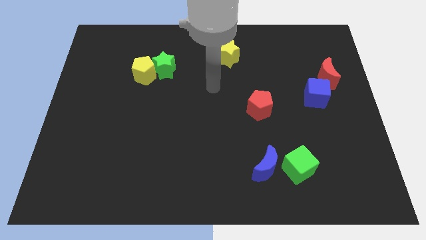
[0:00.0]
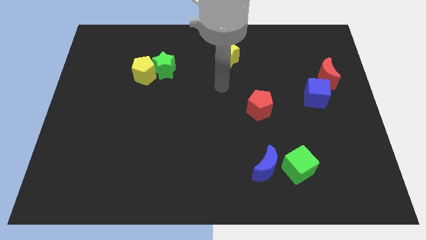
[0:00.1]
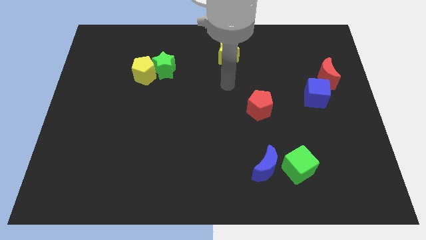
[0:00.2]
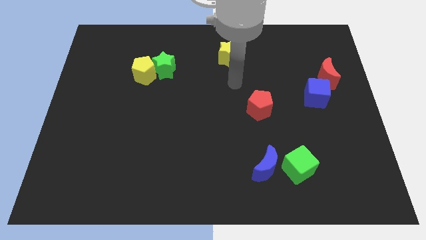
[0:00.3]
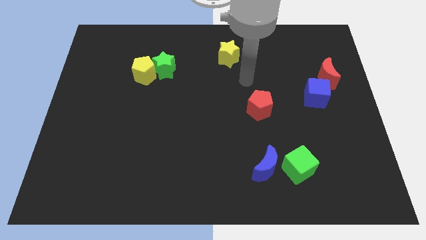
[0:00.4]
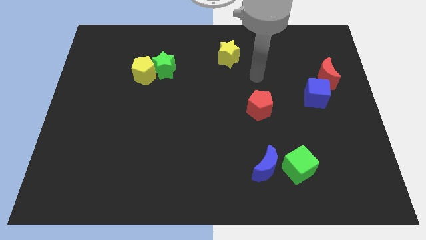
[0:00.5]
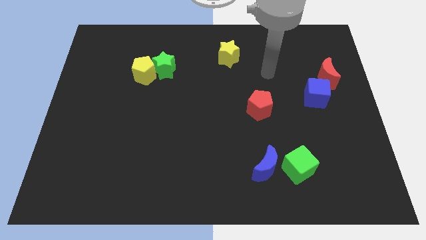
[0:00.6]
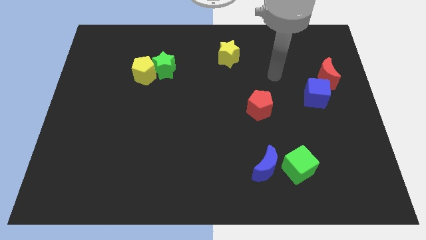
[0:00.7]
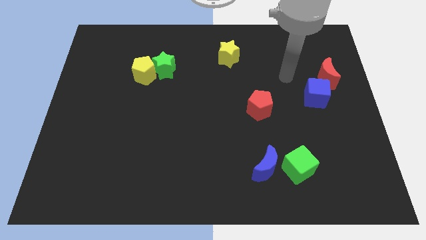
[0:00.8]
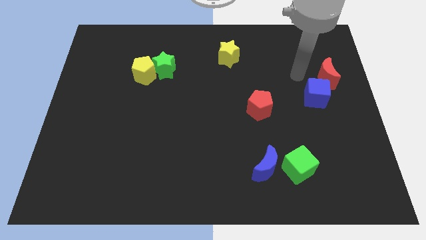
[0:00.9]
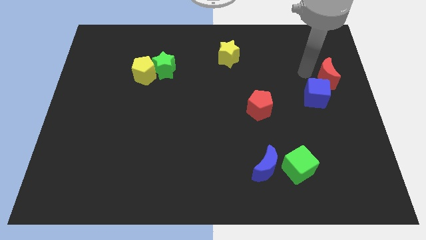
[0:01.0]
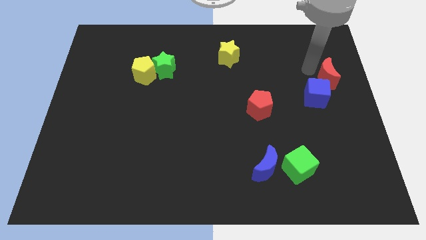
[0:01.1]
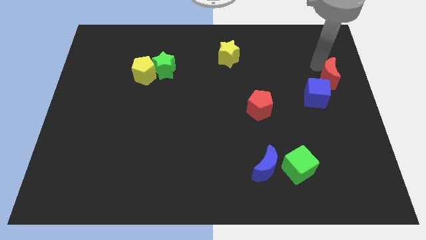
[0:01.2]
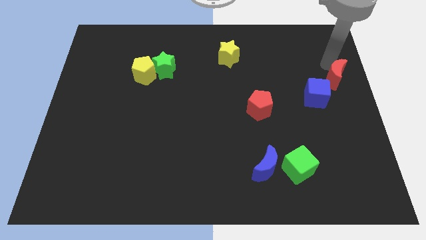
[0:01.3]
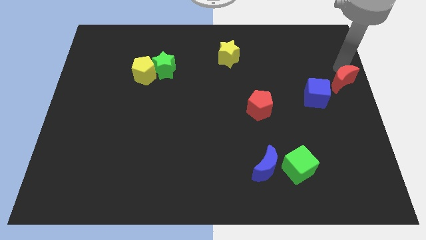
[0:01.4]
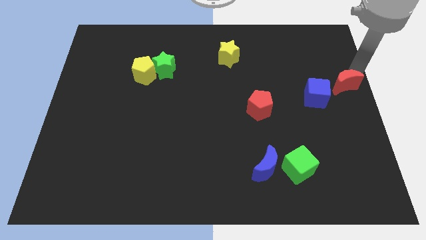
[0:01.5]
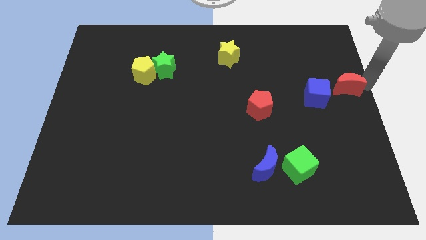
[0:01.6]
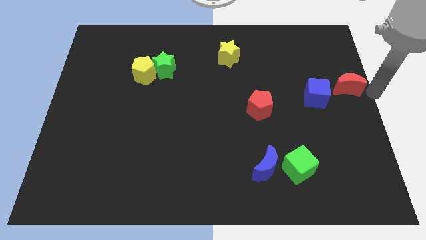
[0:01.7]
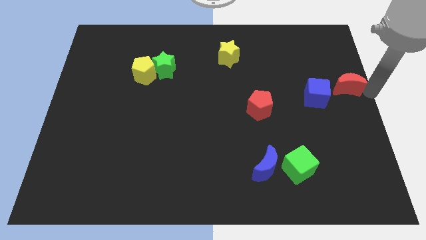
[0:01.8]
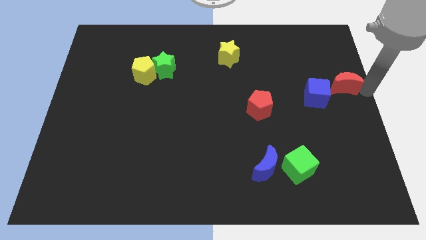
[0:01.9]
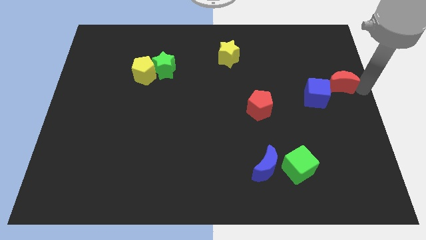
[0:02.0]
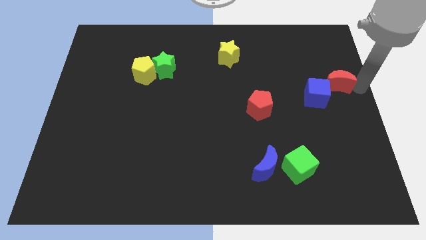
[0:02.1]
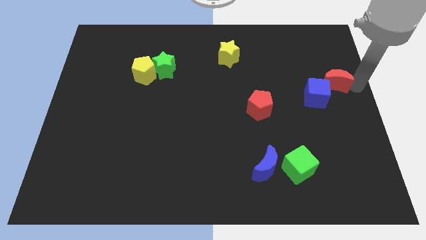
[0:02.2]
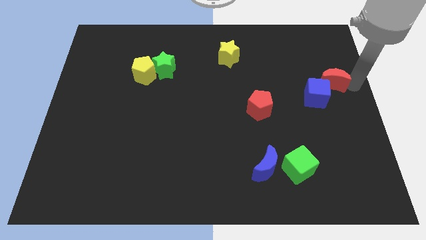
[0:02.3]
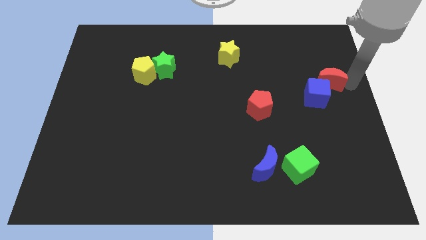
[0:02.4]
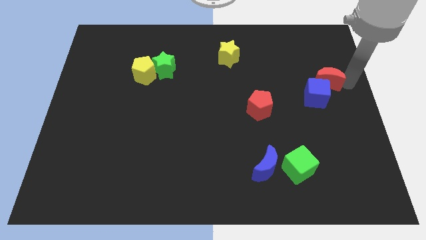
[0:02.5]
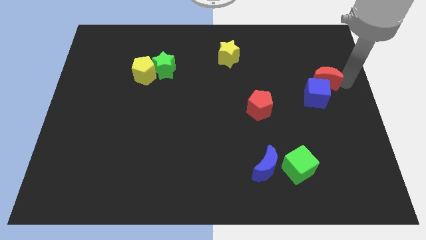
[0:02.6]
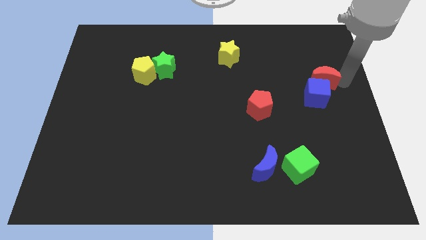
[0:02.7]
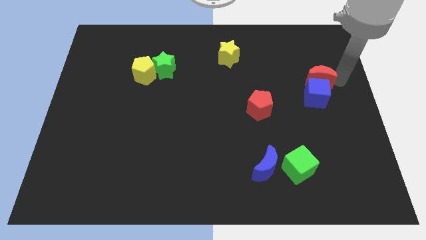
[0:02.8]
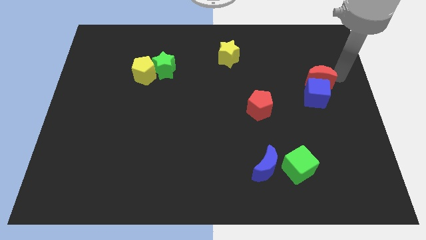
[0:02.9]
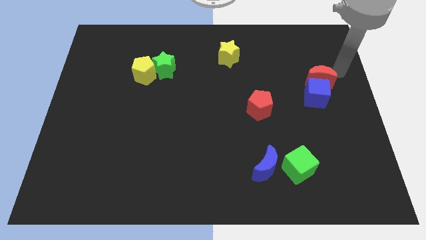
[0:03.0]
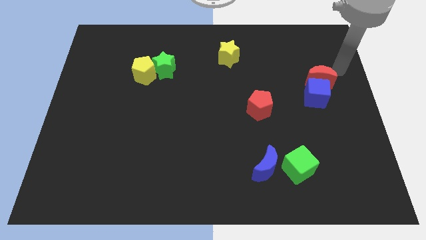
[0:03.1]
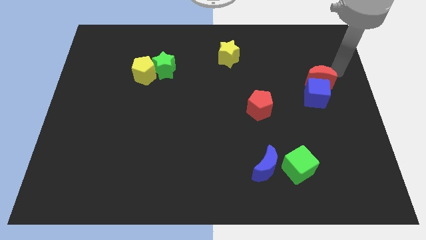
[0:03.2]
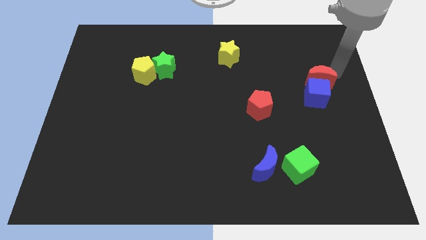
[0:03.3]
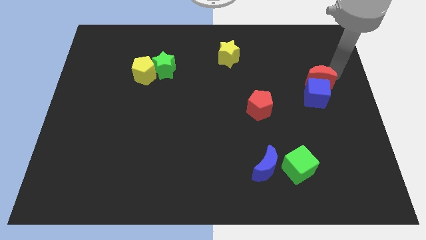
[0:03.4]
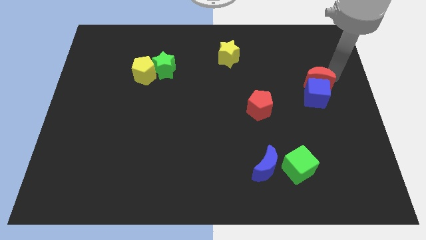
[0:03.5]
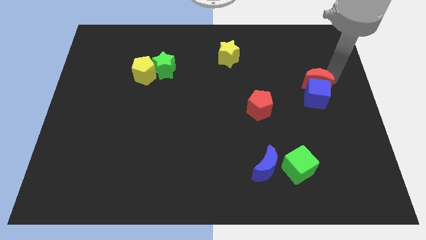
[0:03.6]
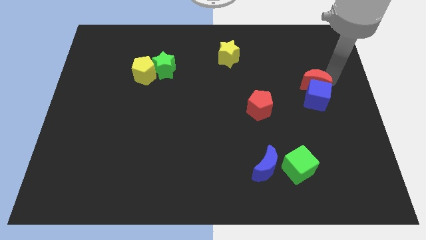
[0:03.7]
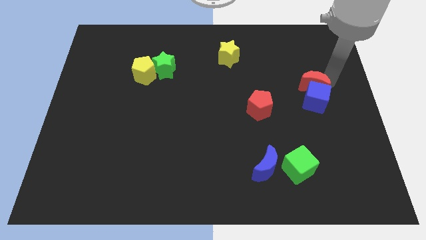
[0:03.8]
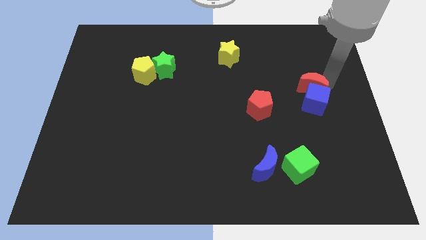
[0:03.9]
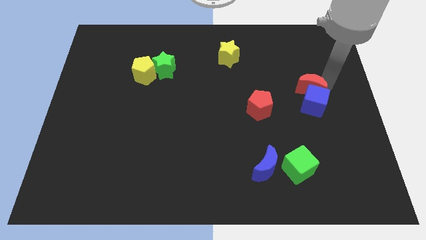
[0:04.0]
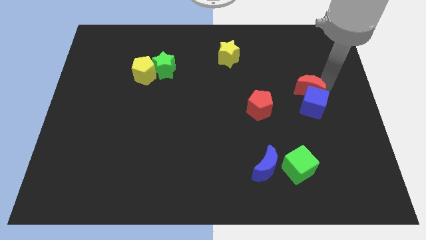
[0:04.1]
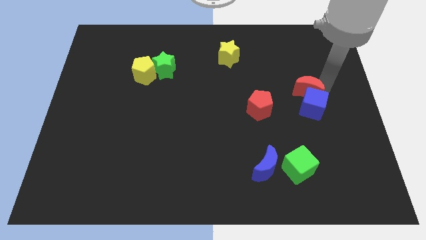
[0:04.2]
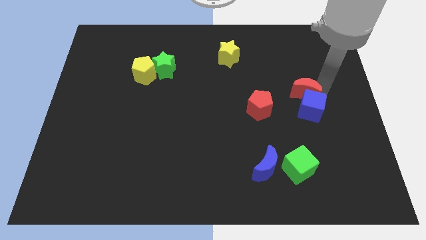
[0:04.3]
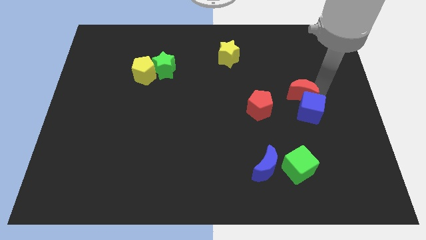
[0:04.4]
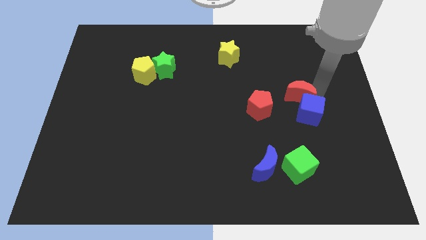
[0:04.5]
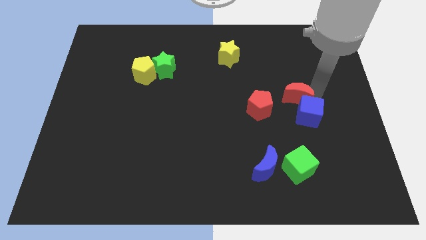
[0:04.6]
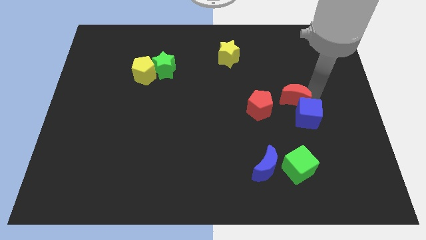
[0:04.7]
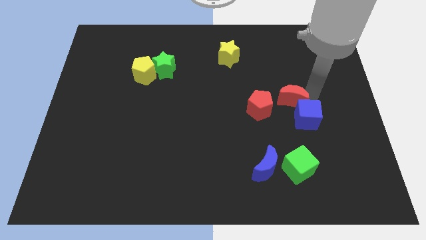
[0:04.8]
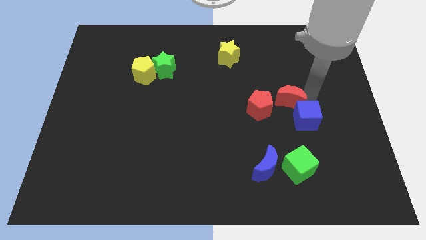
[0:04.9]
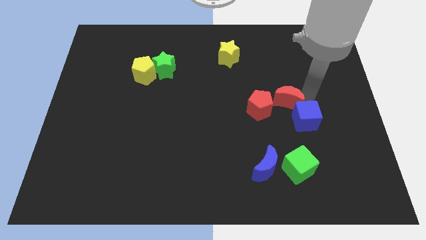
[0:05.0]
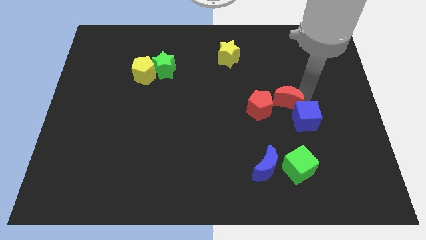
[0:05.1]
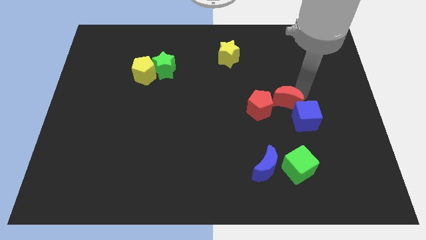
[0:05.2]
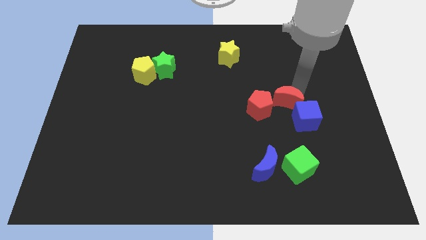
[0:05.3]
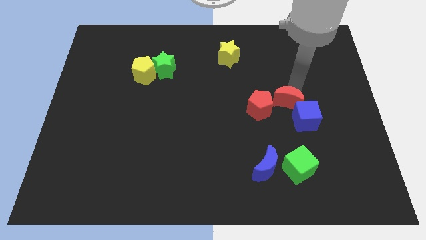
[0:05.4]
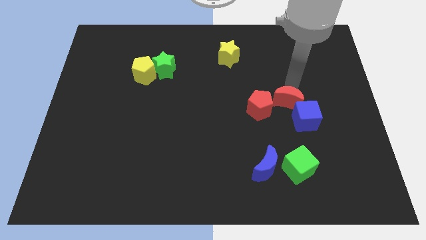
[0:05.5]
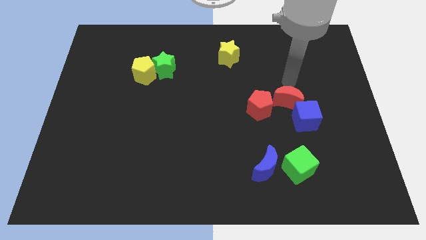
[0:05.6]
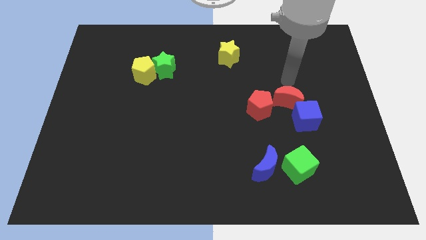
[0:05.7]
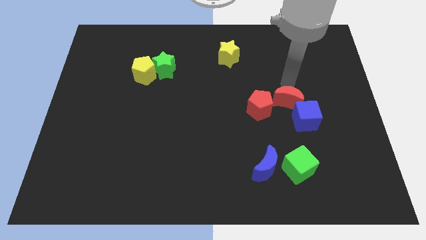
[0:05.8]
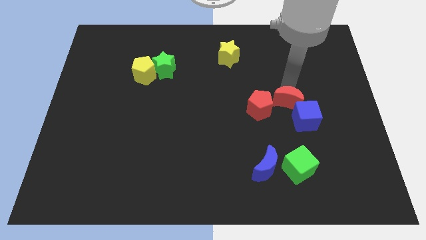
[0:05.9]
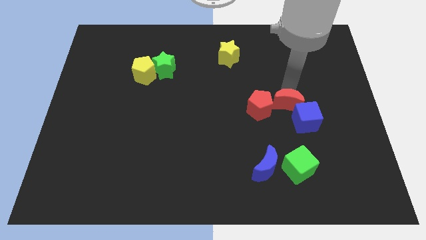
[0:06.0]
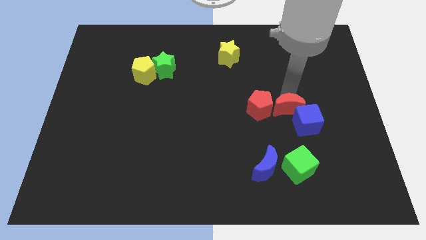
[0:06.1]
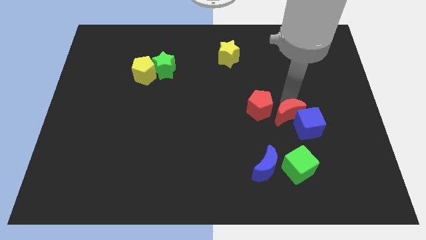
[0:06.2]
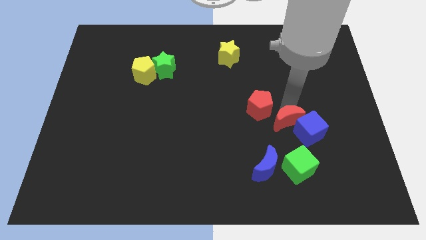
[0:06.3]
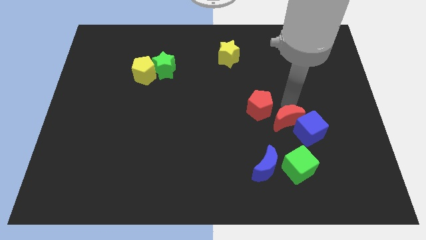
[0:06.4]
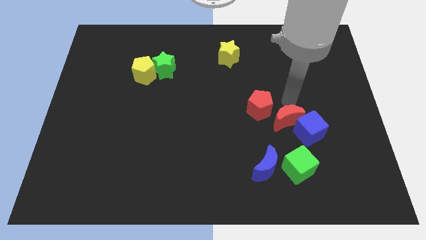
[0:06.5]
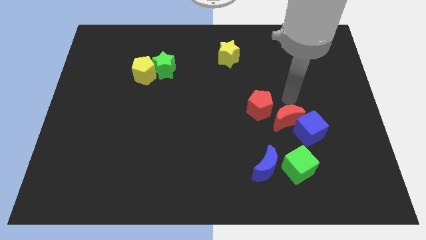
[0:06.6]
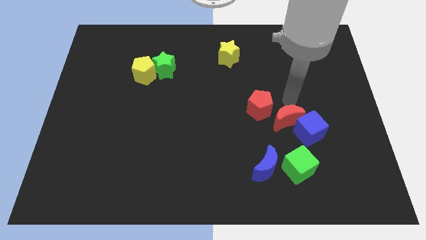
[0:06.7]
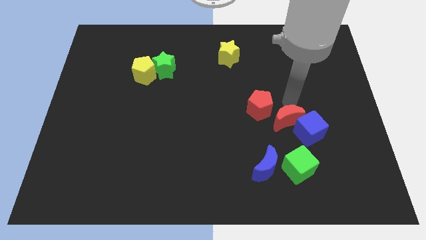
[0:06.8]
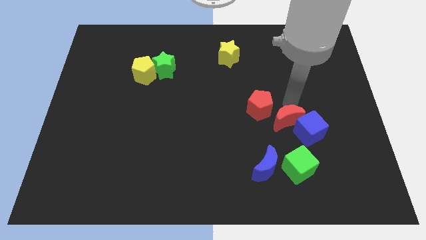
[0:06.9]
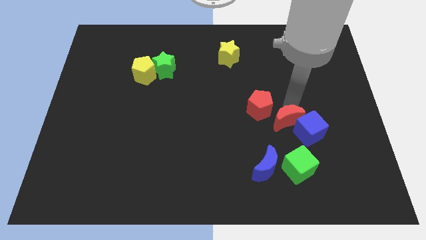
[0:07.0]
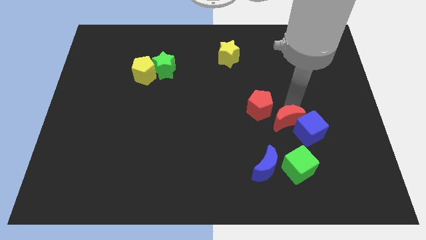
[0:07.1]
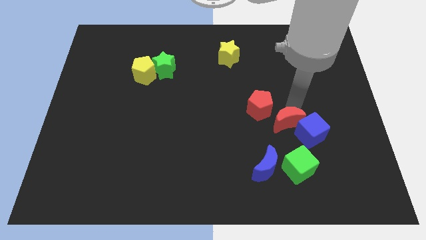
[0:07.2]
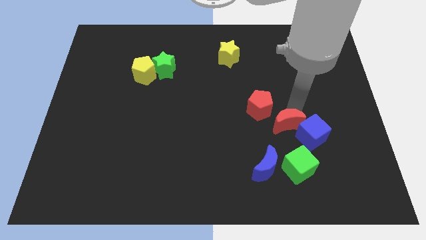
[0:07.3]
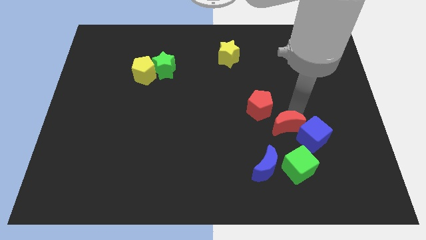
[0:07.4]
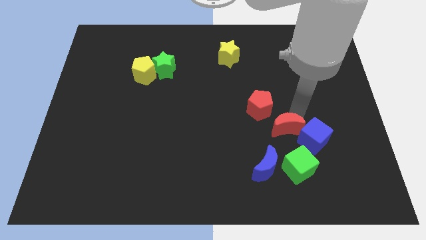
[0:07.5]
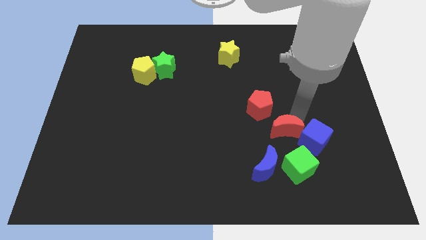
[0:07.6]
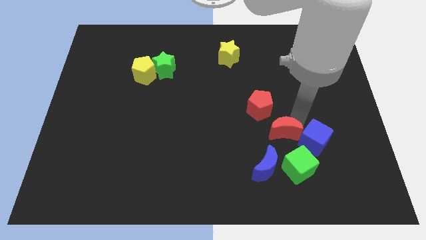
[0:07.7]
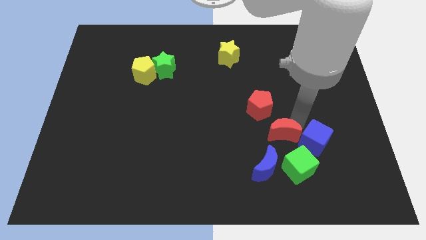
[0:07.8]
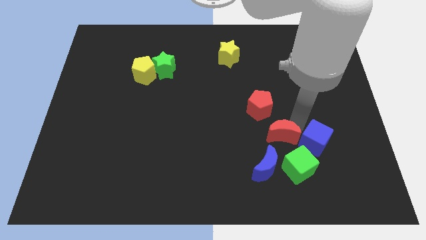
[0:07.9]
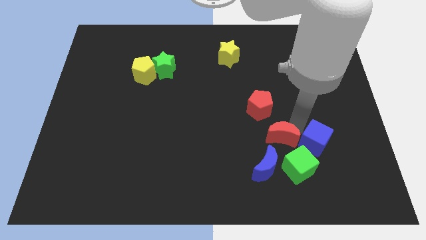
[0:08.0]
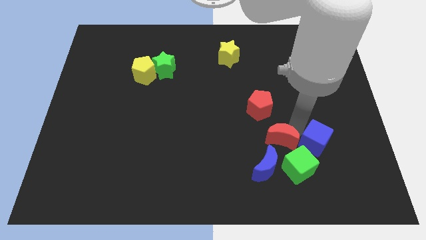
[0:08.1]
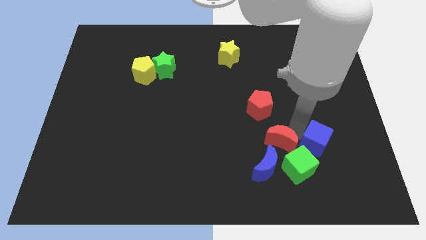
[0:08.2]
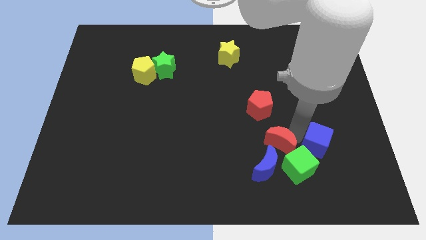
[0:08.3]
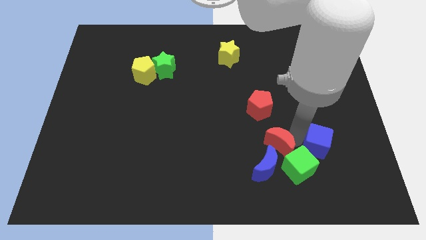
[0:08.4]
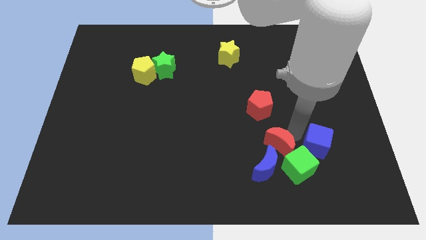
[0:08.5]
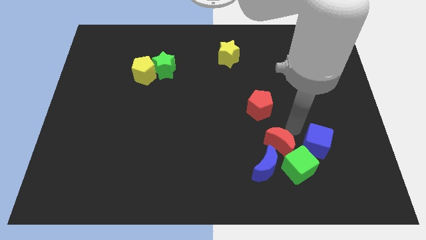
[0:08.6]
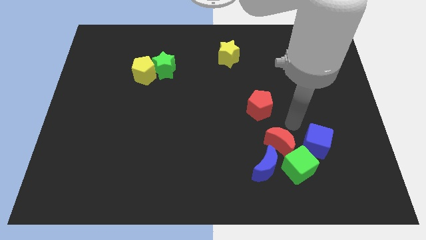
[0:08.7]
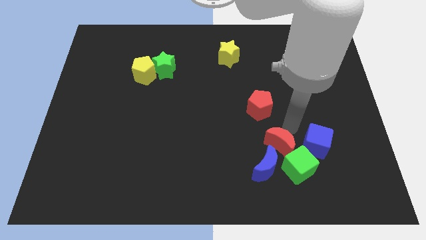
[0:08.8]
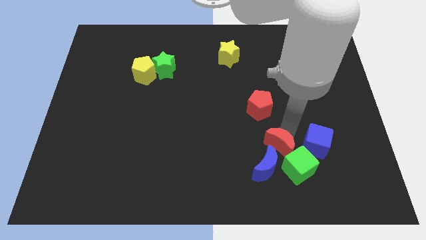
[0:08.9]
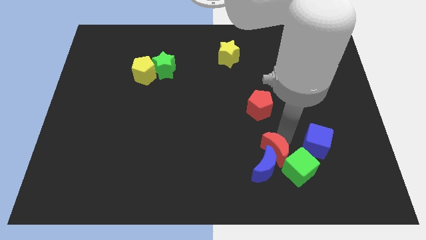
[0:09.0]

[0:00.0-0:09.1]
slide the red moon next to the blue moon
